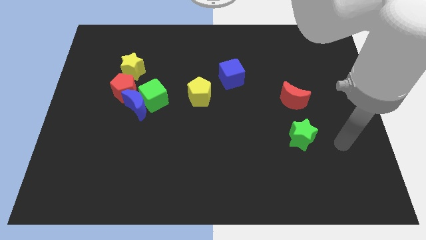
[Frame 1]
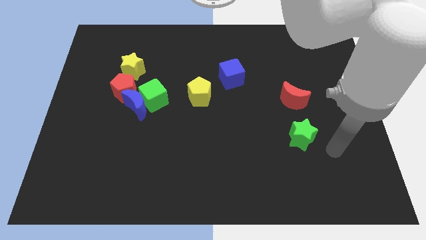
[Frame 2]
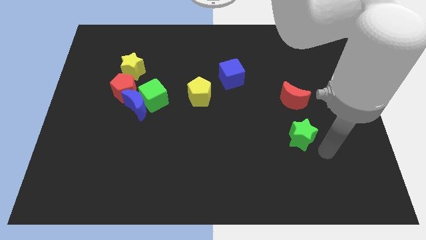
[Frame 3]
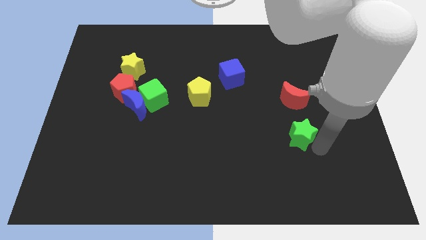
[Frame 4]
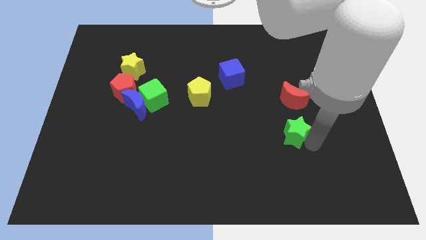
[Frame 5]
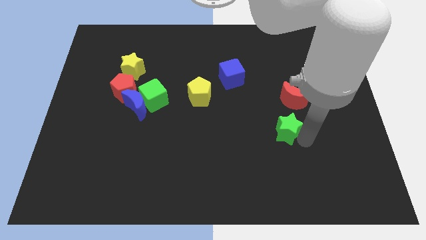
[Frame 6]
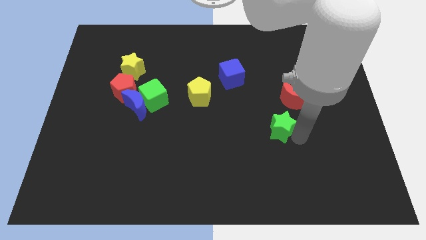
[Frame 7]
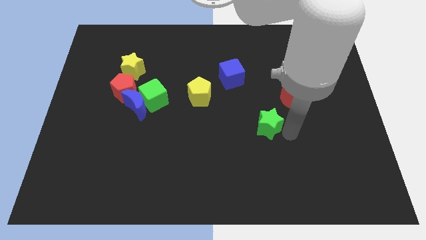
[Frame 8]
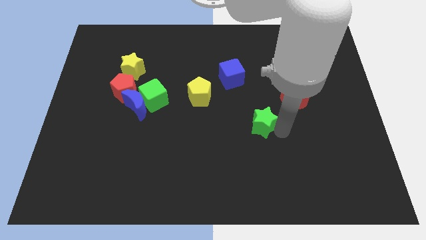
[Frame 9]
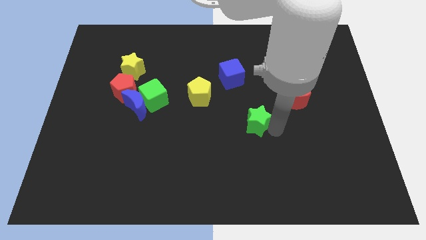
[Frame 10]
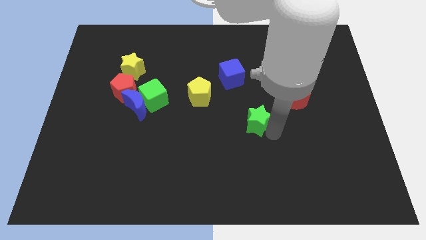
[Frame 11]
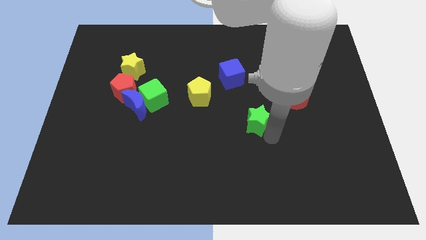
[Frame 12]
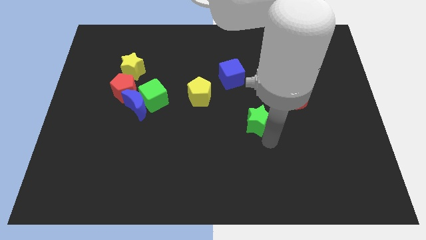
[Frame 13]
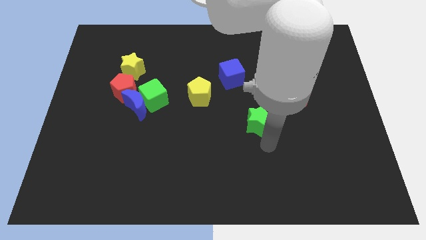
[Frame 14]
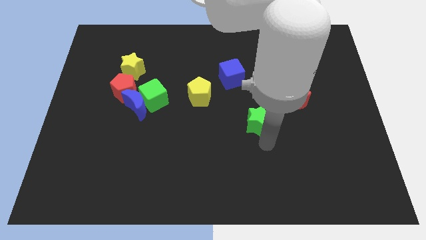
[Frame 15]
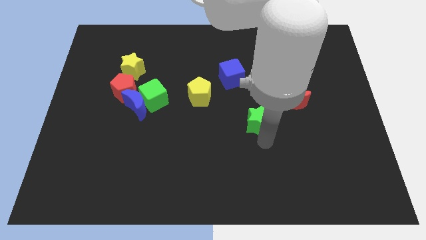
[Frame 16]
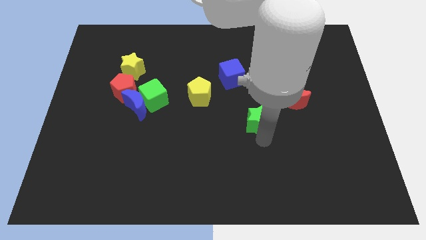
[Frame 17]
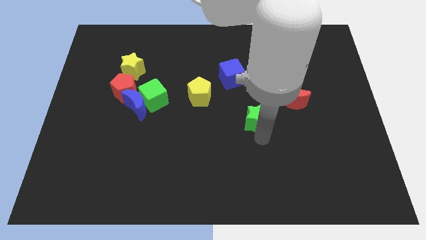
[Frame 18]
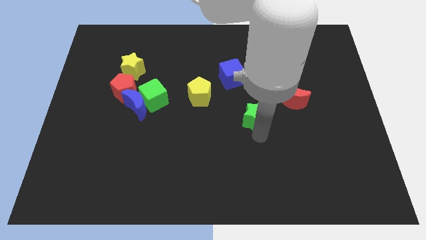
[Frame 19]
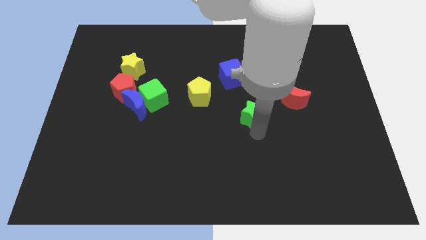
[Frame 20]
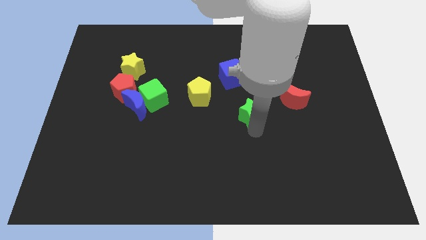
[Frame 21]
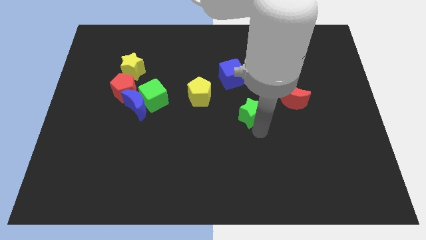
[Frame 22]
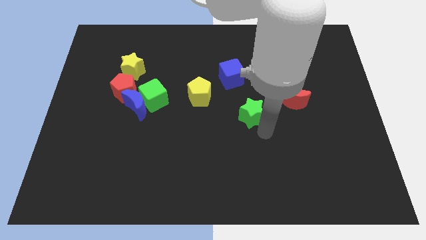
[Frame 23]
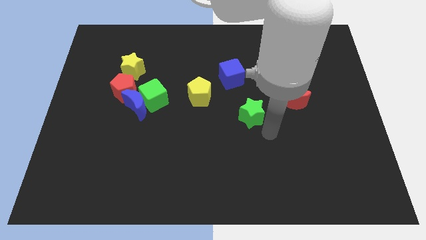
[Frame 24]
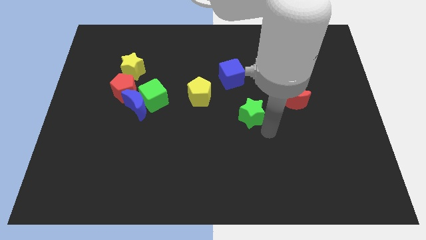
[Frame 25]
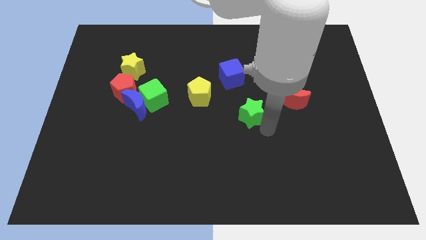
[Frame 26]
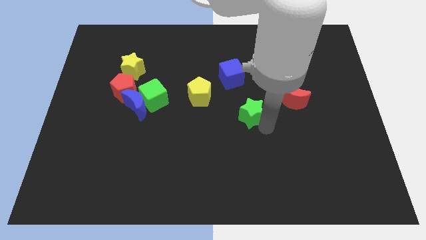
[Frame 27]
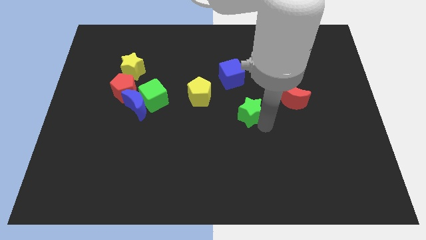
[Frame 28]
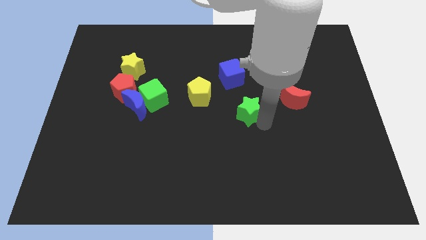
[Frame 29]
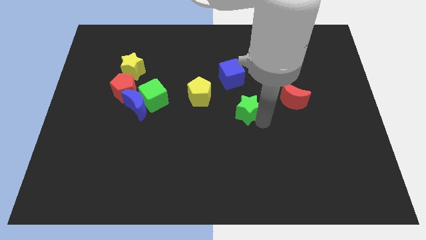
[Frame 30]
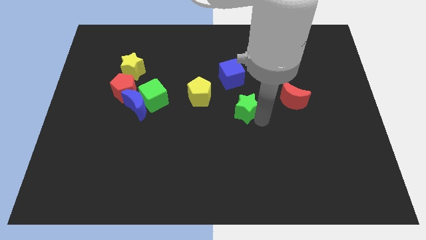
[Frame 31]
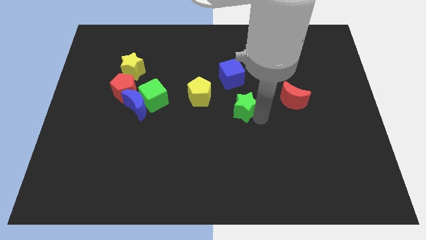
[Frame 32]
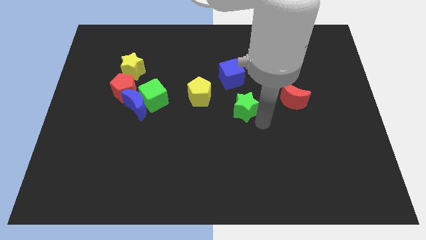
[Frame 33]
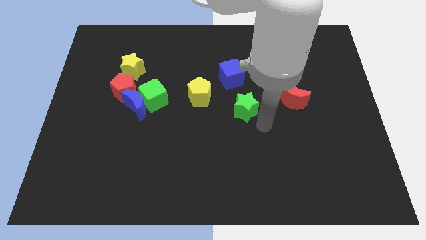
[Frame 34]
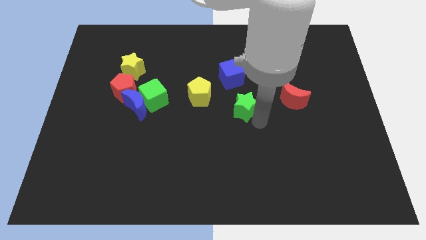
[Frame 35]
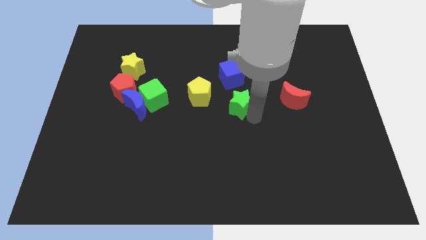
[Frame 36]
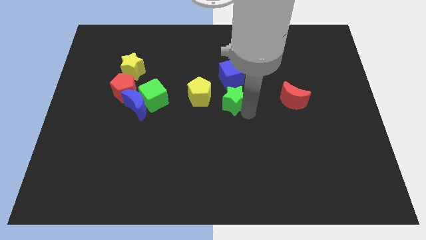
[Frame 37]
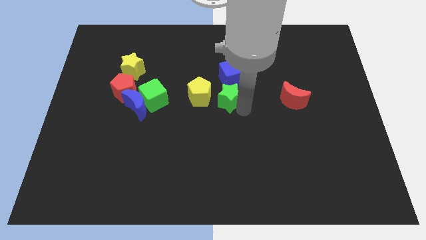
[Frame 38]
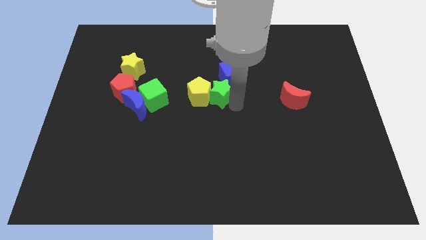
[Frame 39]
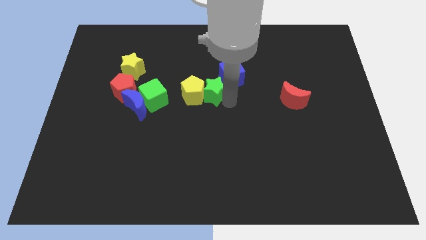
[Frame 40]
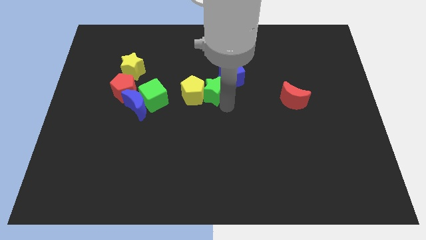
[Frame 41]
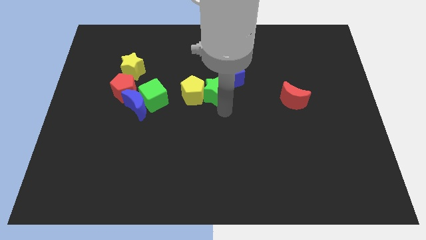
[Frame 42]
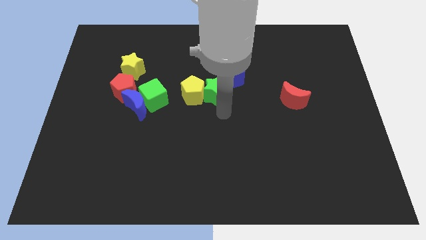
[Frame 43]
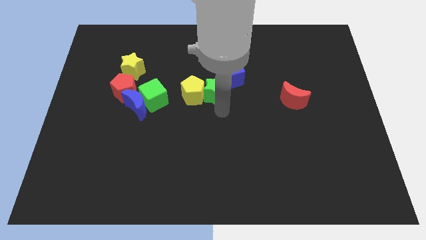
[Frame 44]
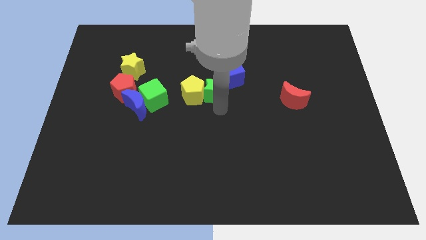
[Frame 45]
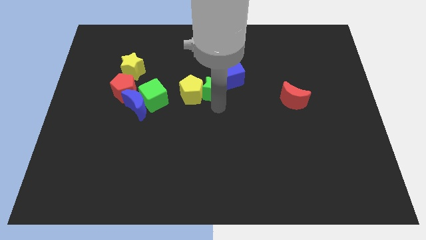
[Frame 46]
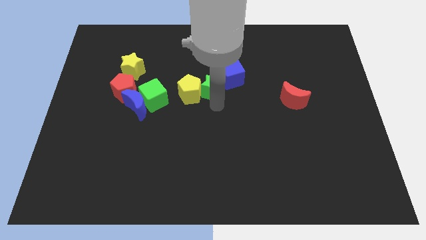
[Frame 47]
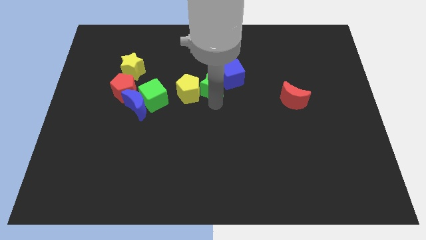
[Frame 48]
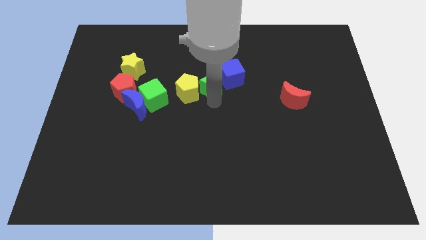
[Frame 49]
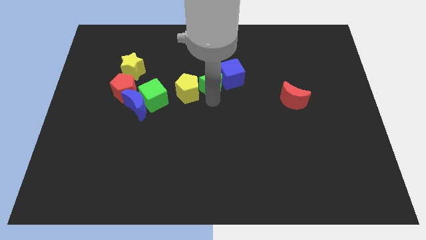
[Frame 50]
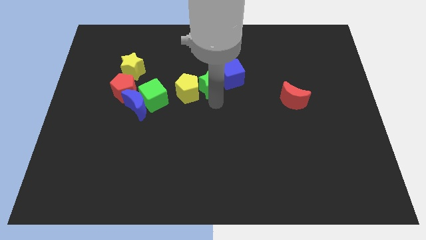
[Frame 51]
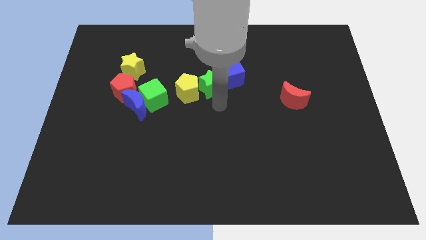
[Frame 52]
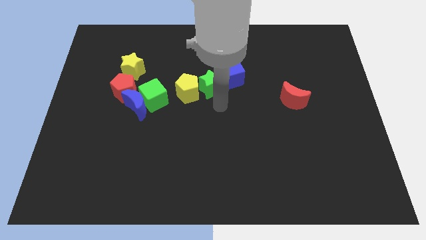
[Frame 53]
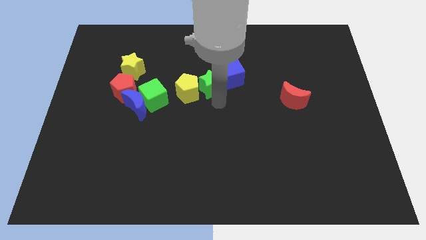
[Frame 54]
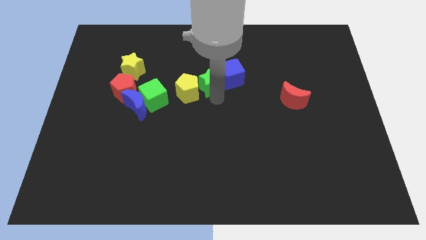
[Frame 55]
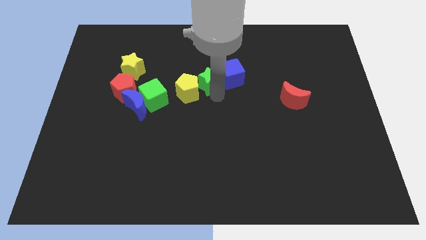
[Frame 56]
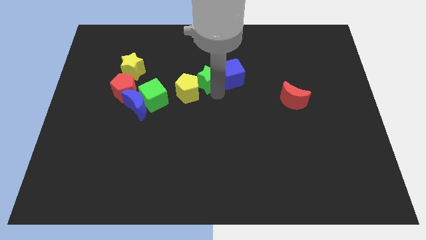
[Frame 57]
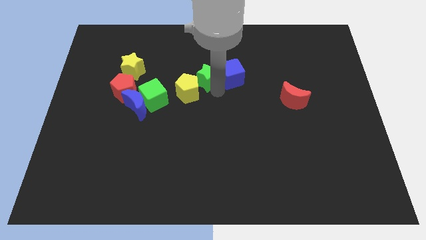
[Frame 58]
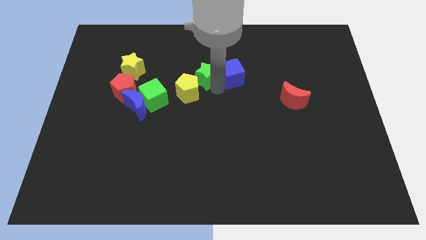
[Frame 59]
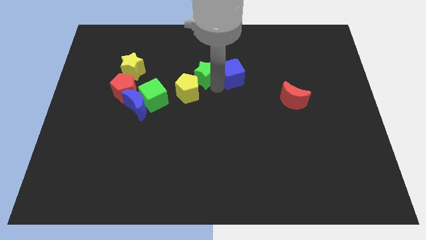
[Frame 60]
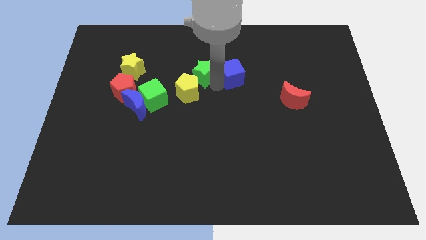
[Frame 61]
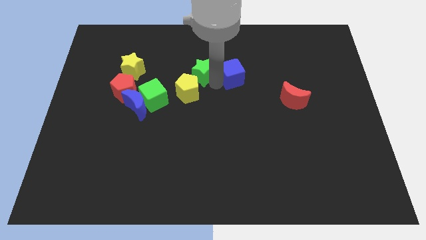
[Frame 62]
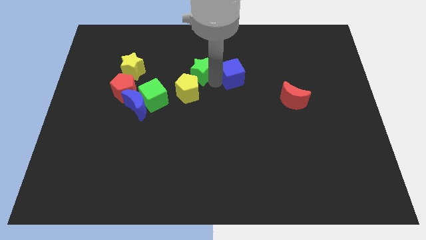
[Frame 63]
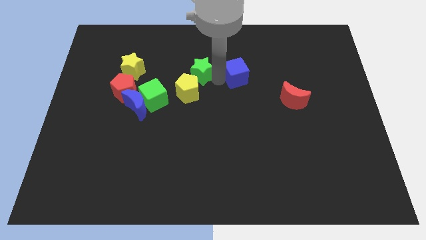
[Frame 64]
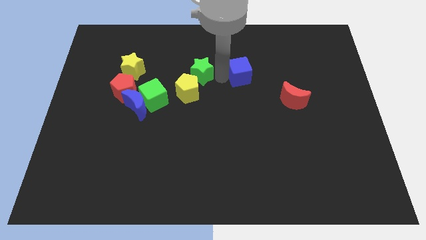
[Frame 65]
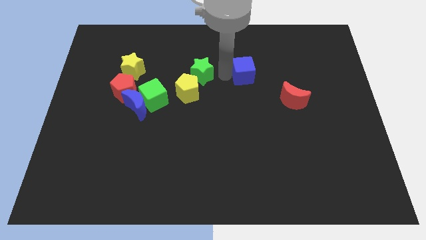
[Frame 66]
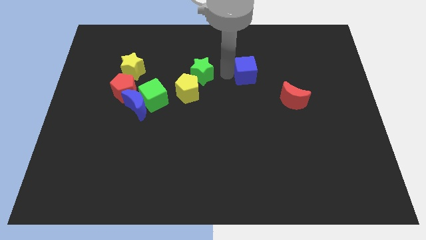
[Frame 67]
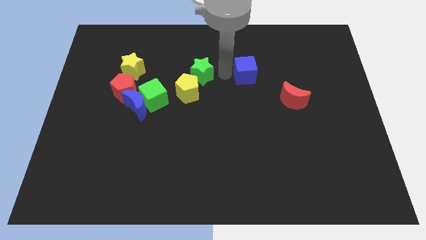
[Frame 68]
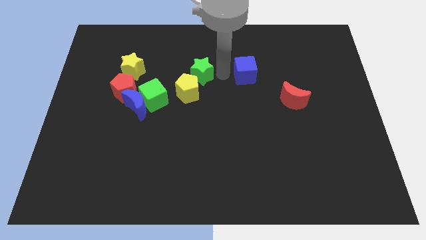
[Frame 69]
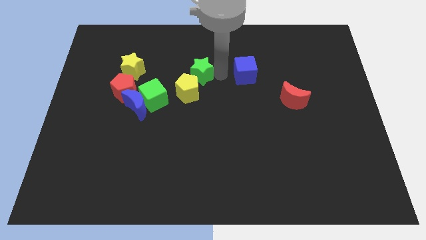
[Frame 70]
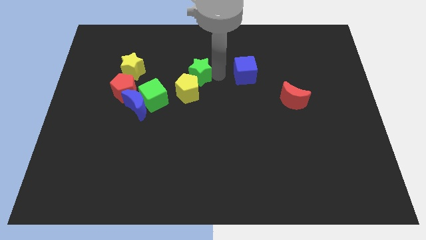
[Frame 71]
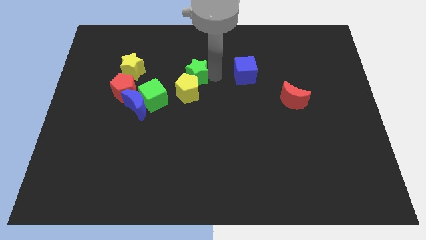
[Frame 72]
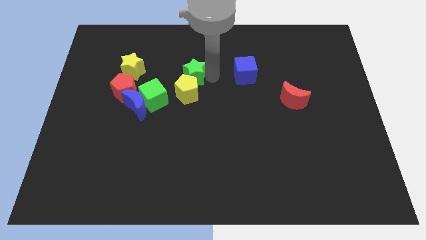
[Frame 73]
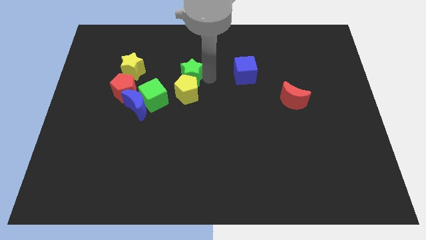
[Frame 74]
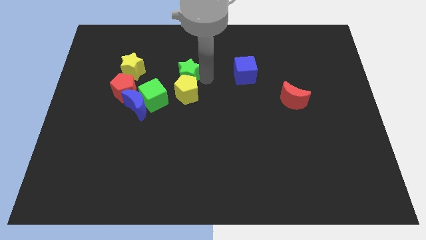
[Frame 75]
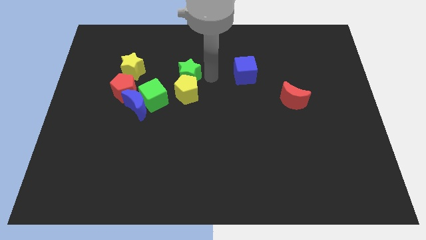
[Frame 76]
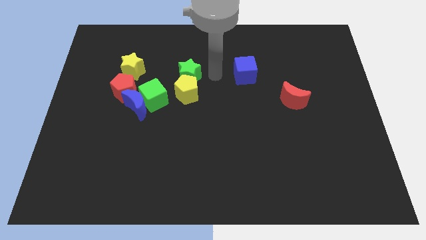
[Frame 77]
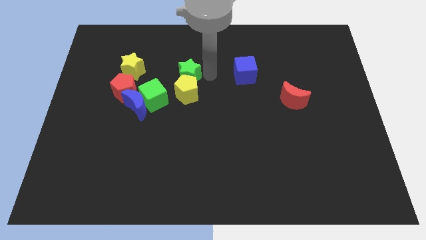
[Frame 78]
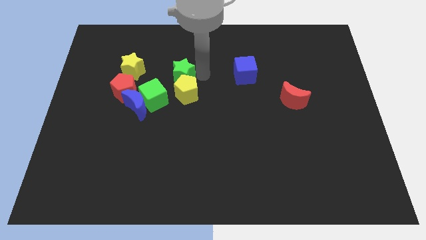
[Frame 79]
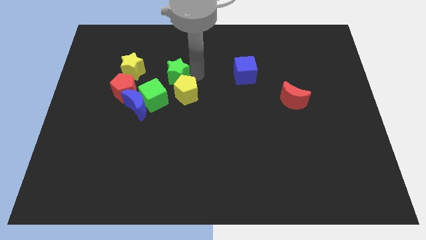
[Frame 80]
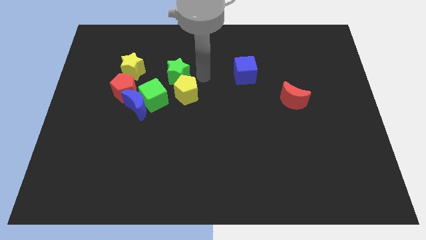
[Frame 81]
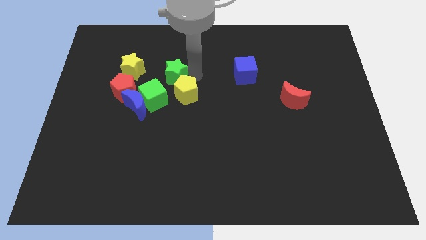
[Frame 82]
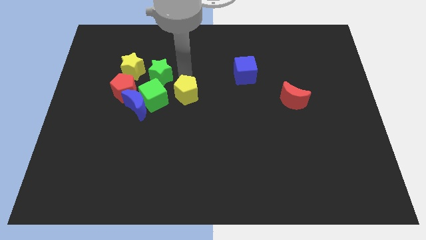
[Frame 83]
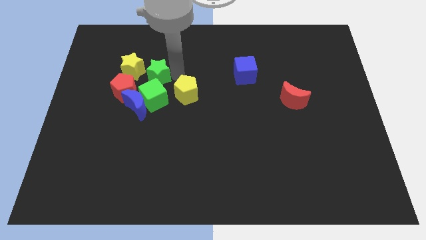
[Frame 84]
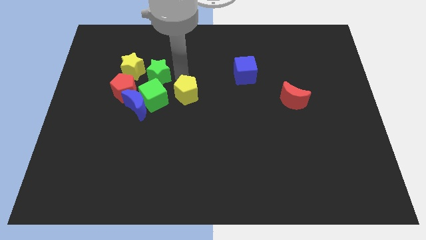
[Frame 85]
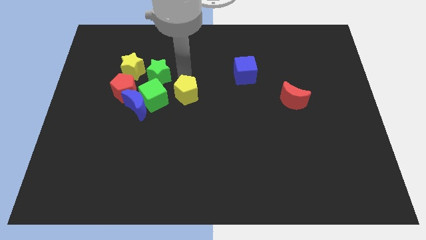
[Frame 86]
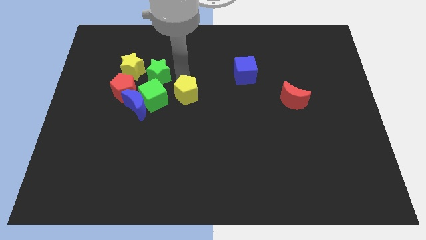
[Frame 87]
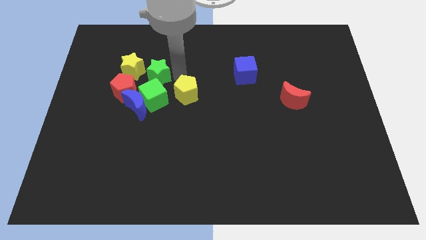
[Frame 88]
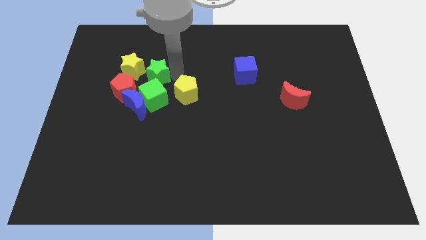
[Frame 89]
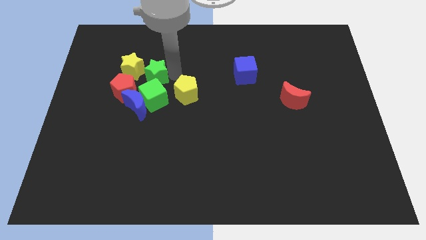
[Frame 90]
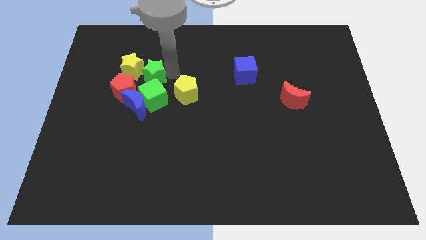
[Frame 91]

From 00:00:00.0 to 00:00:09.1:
put the green star next to the yellow star
